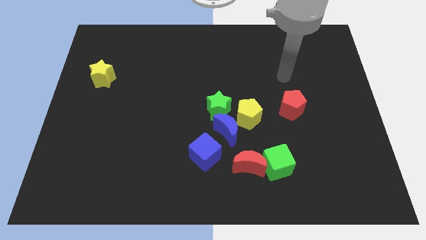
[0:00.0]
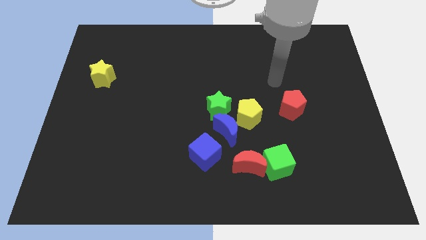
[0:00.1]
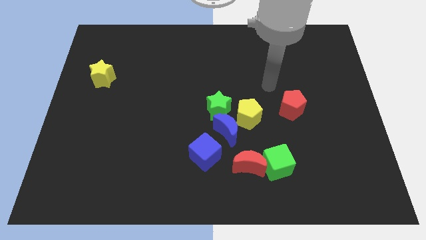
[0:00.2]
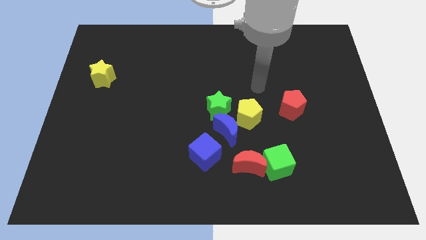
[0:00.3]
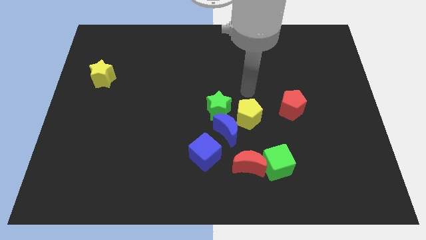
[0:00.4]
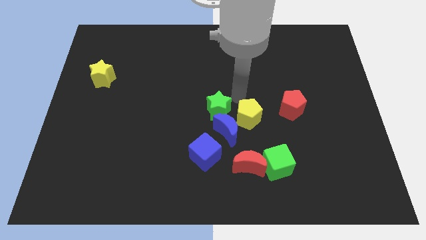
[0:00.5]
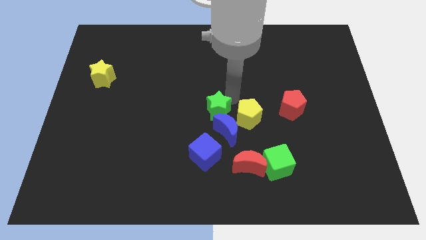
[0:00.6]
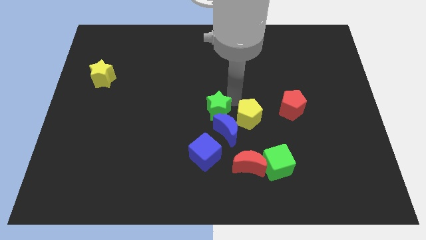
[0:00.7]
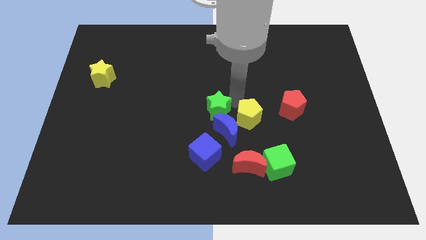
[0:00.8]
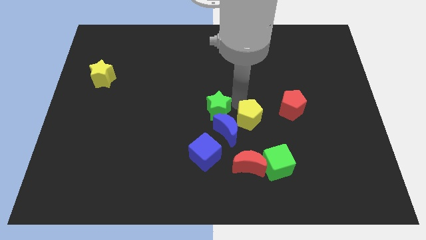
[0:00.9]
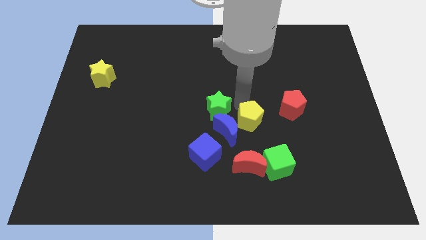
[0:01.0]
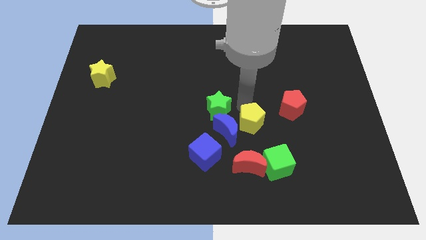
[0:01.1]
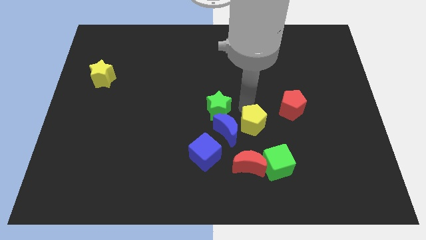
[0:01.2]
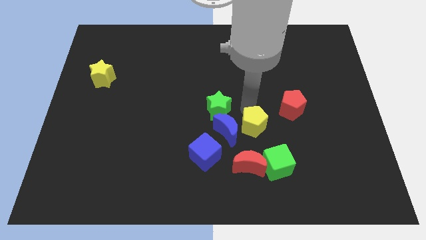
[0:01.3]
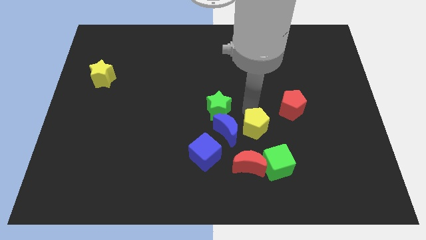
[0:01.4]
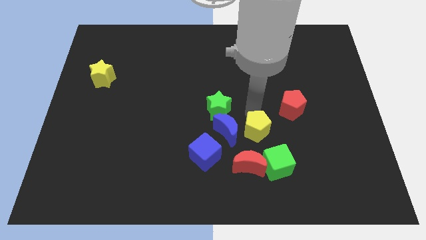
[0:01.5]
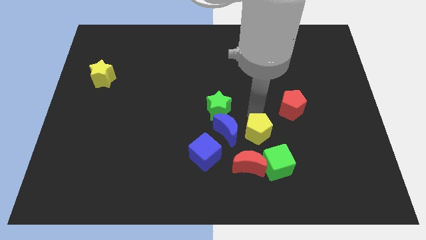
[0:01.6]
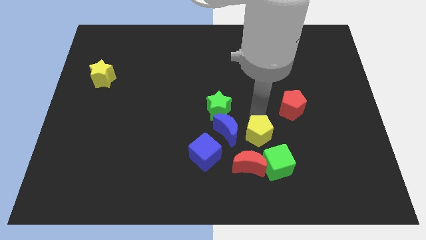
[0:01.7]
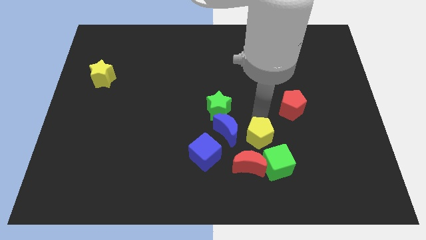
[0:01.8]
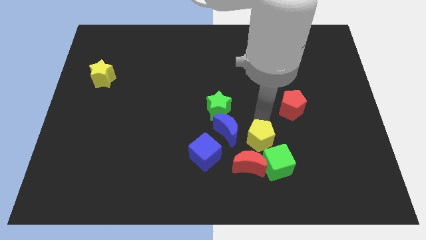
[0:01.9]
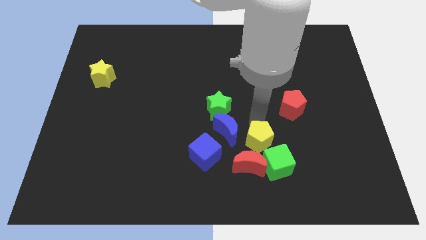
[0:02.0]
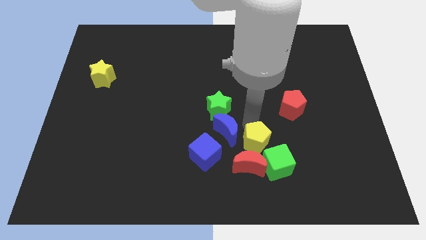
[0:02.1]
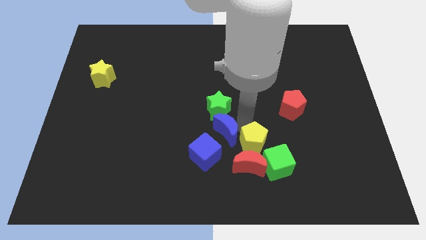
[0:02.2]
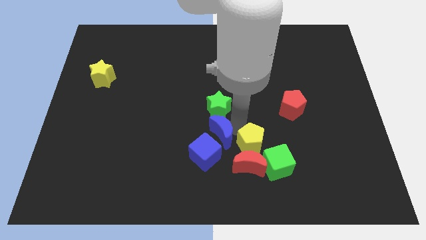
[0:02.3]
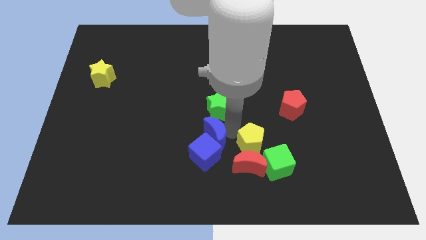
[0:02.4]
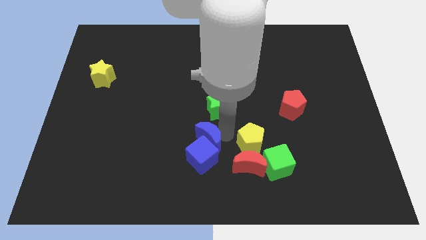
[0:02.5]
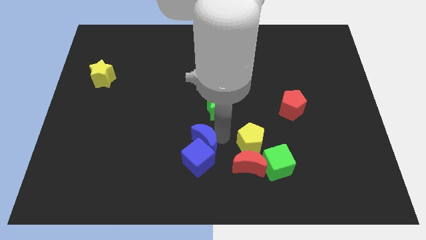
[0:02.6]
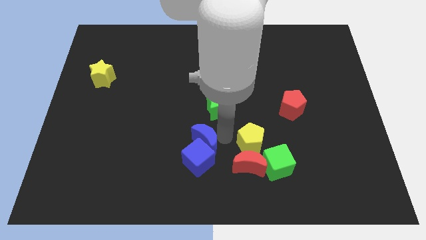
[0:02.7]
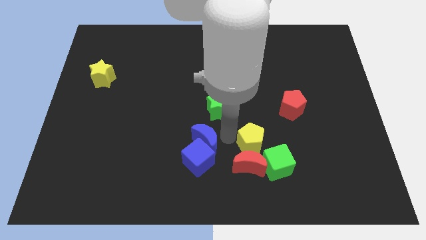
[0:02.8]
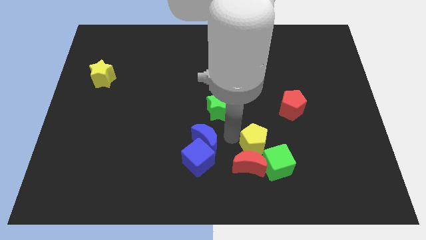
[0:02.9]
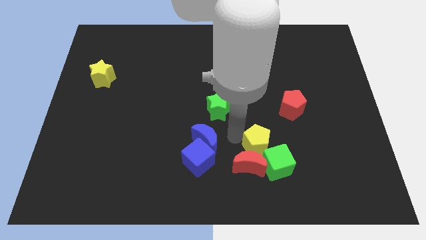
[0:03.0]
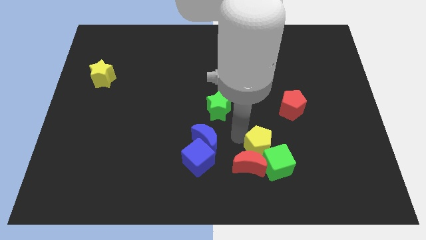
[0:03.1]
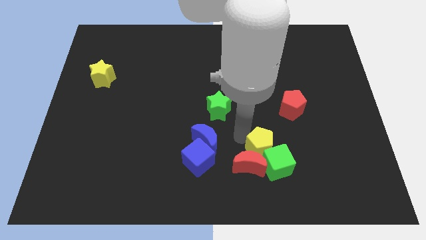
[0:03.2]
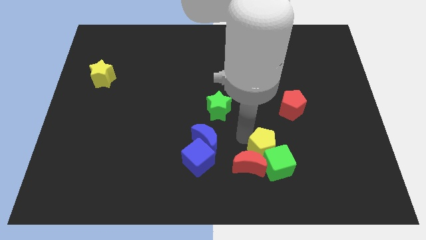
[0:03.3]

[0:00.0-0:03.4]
slightly move the yellow pentagon diagonally down and right

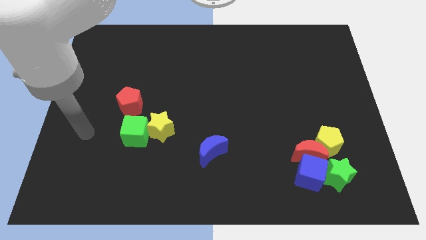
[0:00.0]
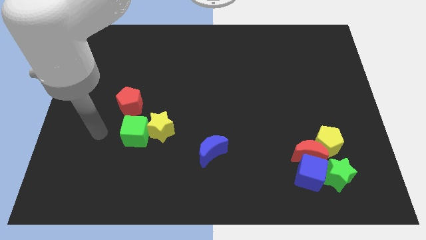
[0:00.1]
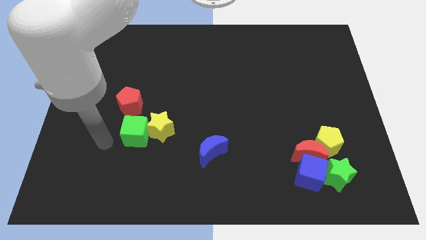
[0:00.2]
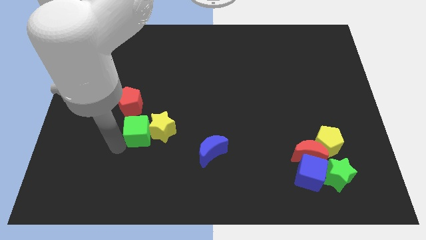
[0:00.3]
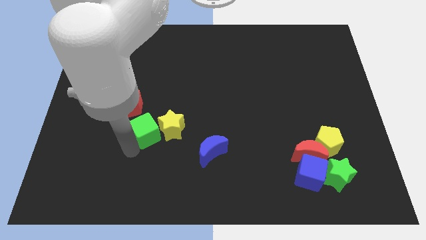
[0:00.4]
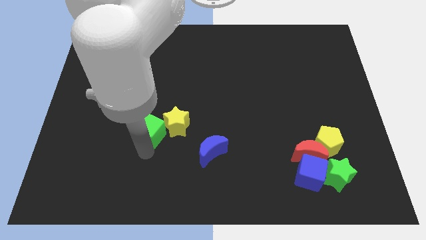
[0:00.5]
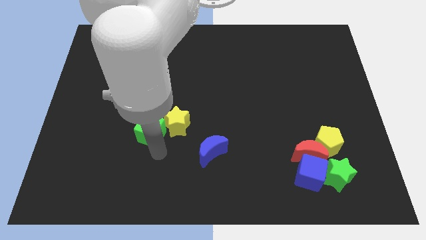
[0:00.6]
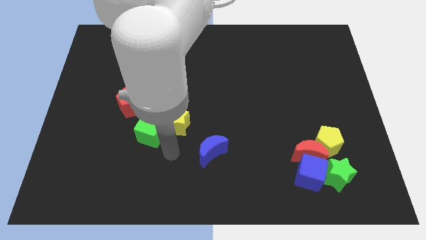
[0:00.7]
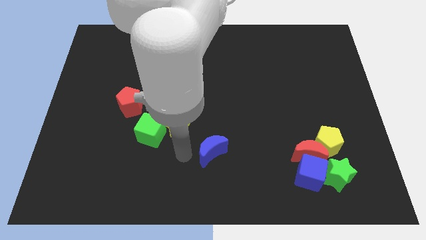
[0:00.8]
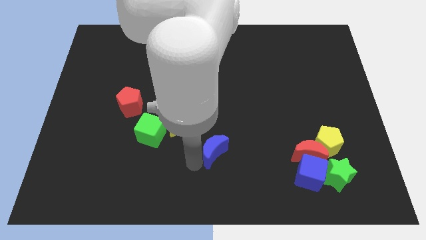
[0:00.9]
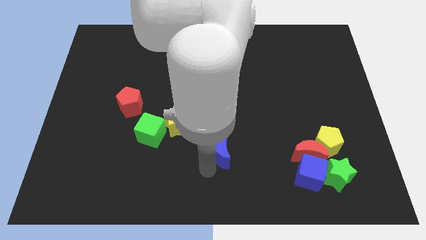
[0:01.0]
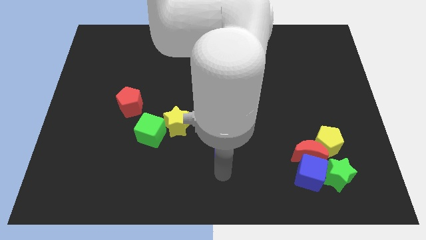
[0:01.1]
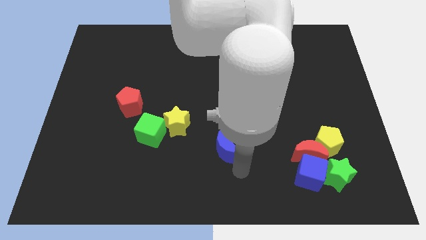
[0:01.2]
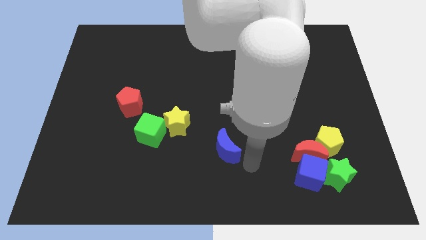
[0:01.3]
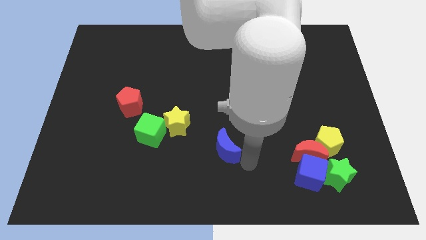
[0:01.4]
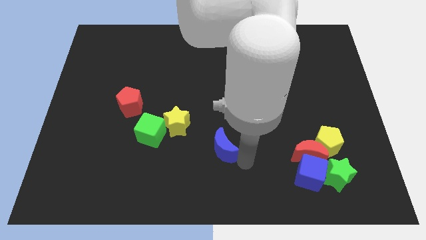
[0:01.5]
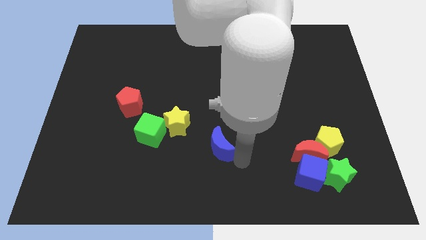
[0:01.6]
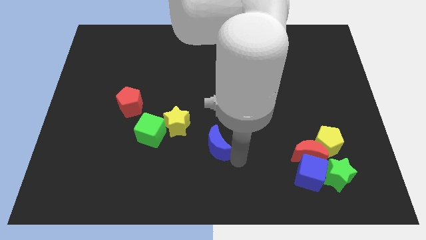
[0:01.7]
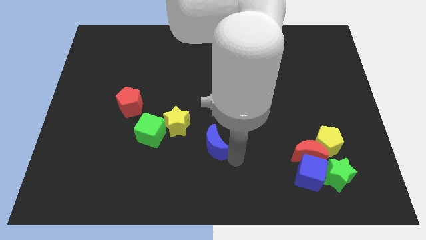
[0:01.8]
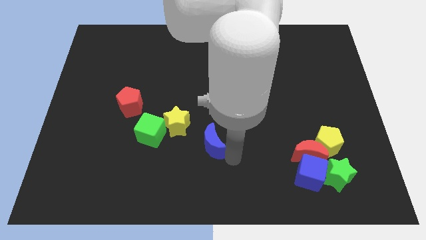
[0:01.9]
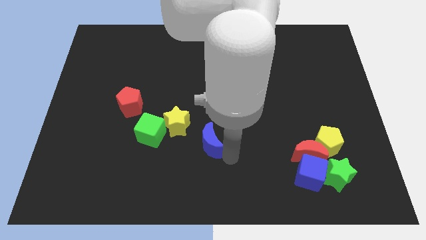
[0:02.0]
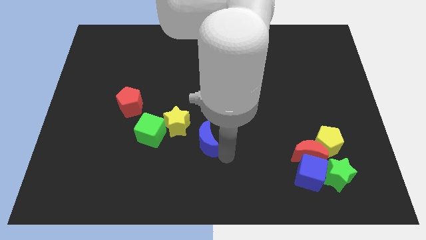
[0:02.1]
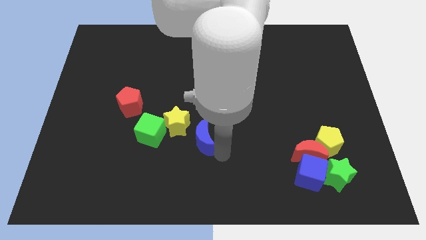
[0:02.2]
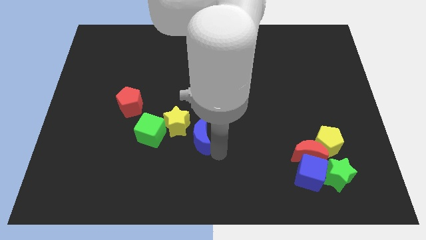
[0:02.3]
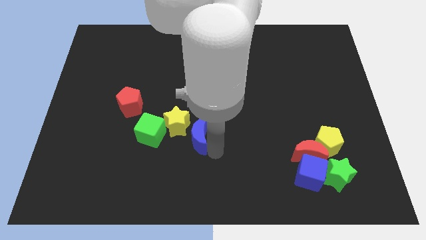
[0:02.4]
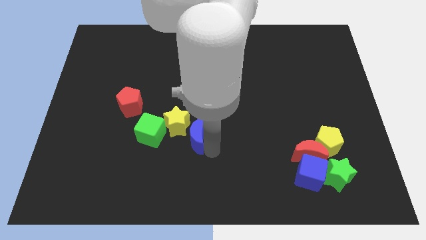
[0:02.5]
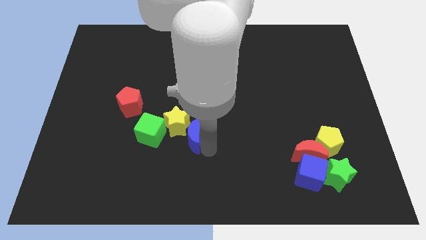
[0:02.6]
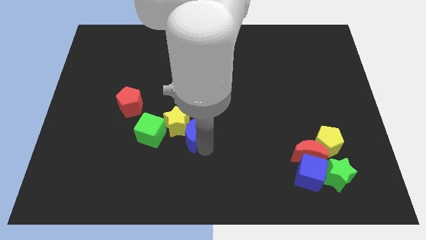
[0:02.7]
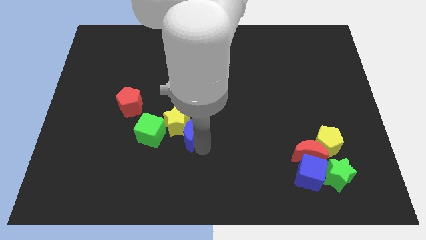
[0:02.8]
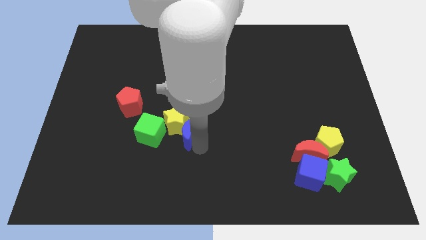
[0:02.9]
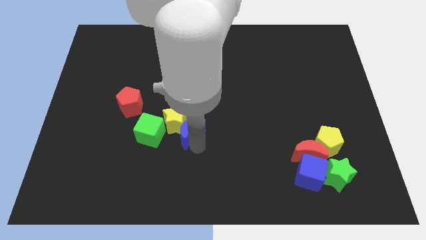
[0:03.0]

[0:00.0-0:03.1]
slightly move the blue moon upwards and left diagonally

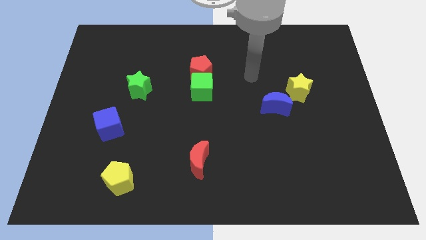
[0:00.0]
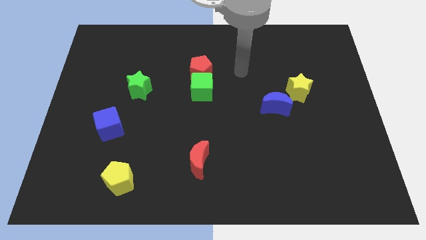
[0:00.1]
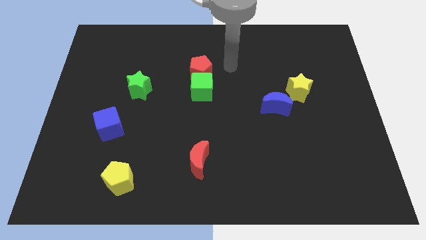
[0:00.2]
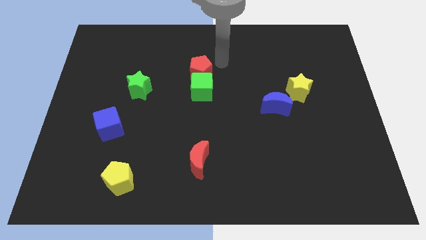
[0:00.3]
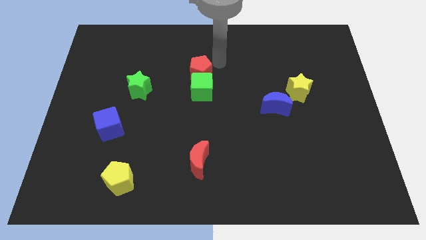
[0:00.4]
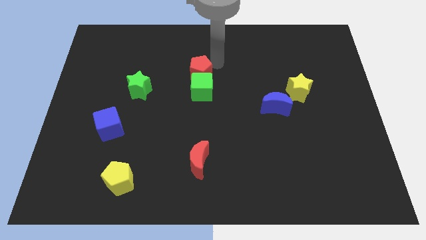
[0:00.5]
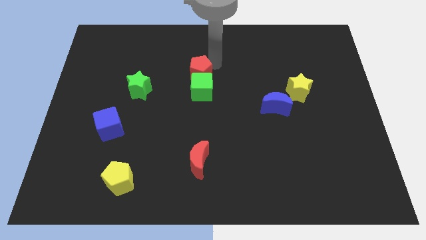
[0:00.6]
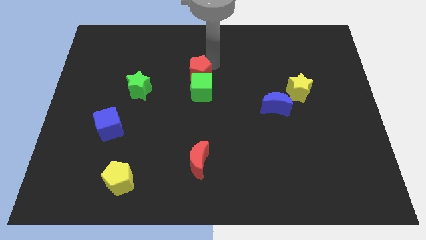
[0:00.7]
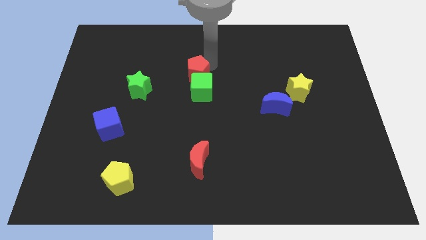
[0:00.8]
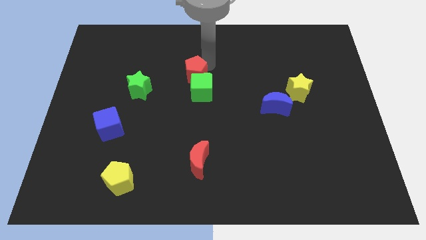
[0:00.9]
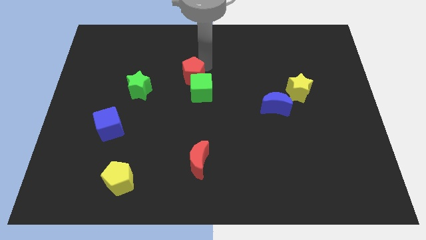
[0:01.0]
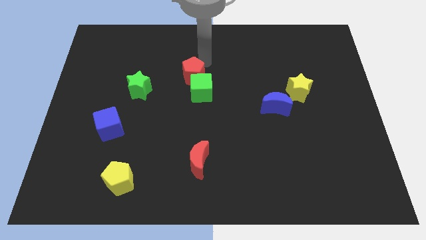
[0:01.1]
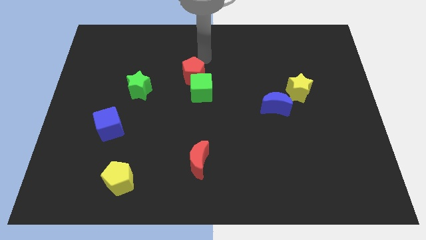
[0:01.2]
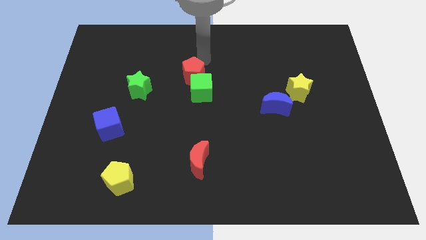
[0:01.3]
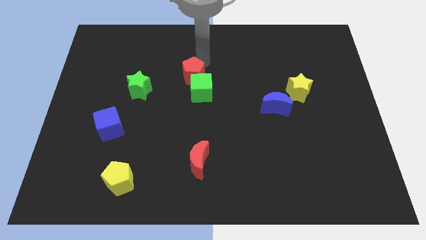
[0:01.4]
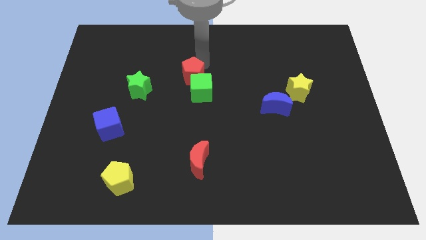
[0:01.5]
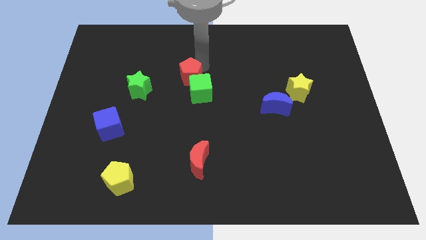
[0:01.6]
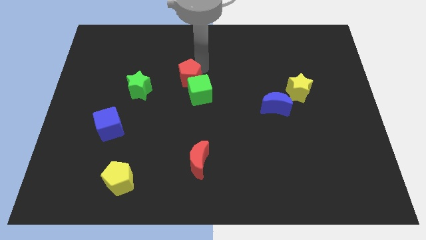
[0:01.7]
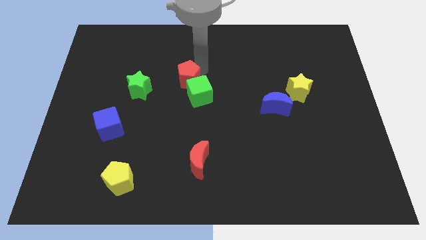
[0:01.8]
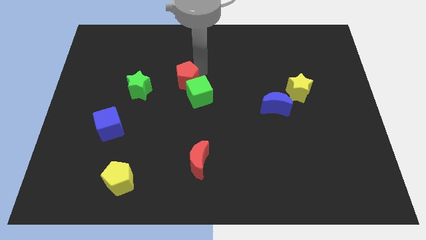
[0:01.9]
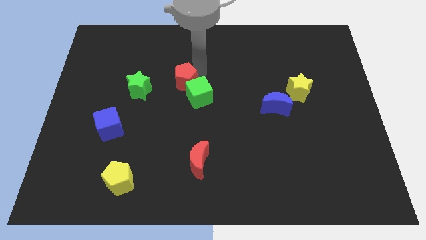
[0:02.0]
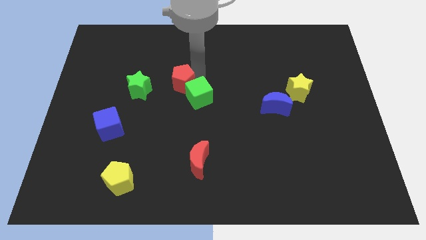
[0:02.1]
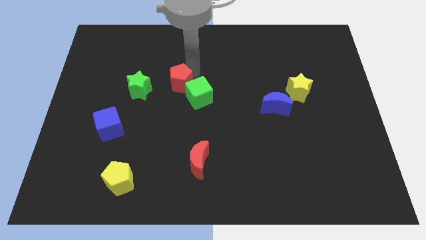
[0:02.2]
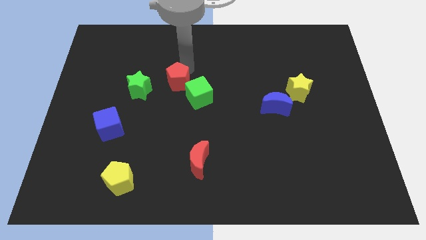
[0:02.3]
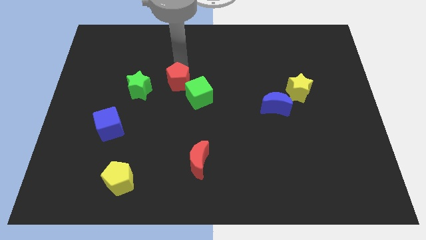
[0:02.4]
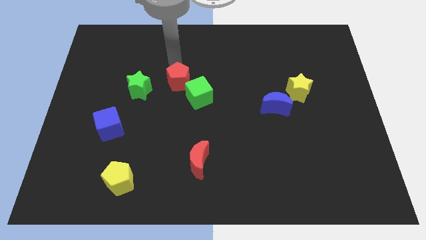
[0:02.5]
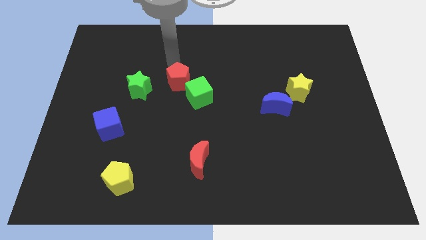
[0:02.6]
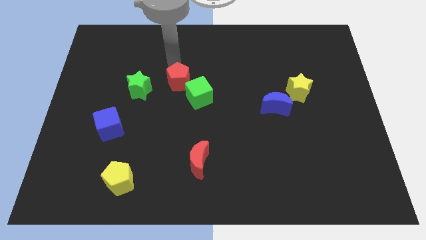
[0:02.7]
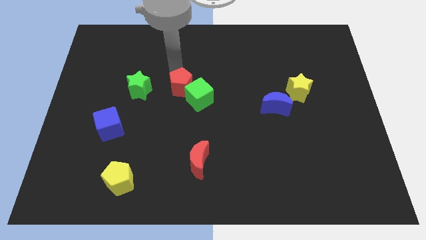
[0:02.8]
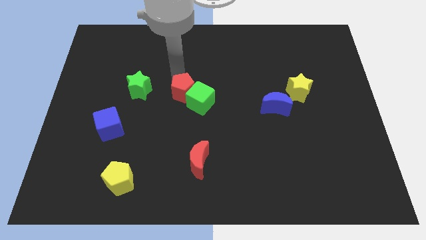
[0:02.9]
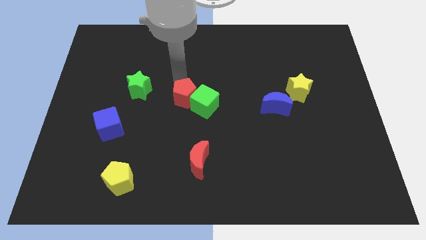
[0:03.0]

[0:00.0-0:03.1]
slightly push the red pentagon down
